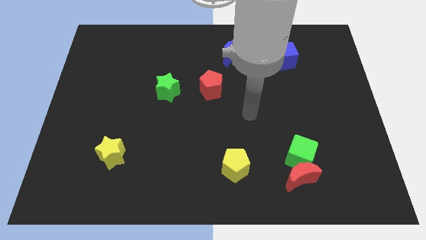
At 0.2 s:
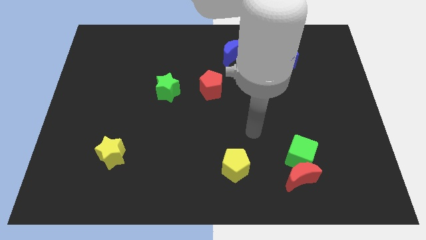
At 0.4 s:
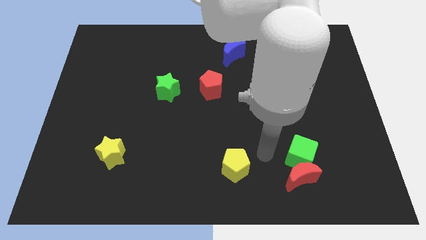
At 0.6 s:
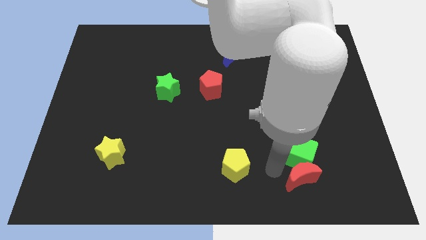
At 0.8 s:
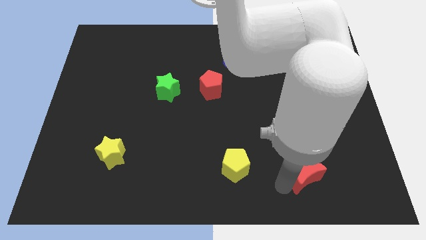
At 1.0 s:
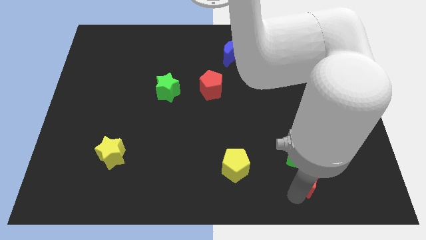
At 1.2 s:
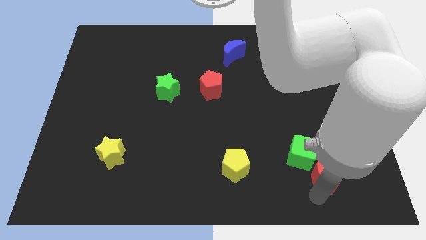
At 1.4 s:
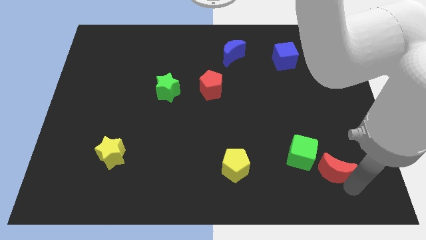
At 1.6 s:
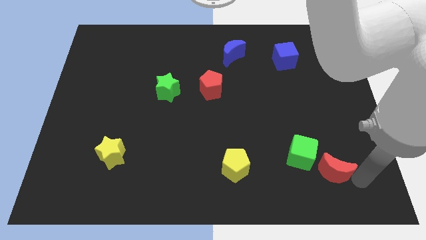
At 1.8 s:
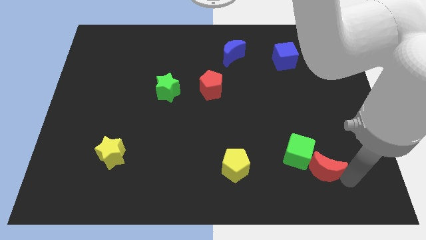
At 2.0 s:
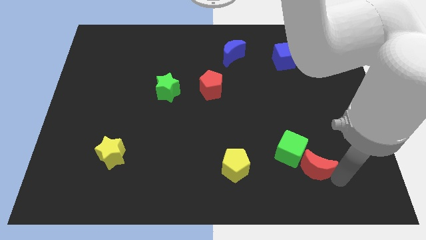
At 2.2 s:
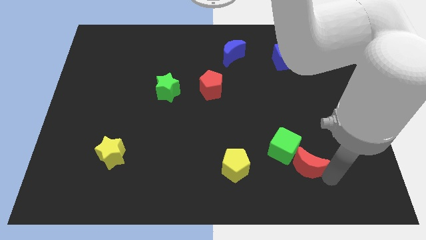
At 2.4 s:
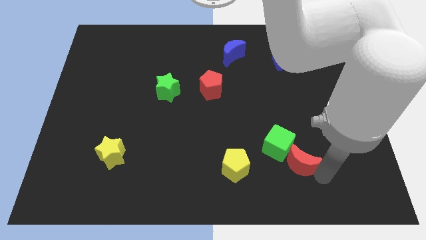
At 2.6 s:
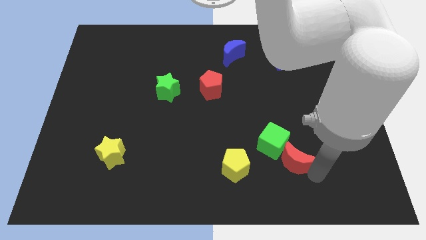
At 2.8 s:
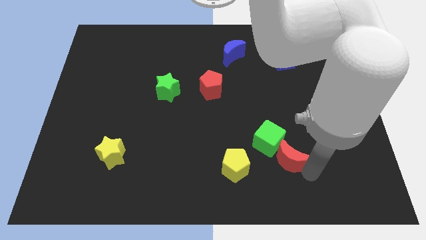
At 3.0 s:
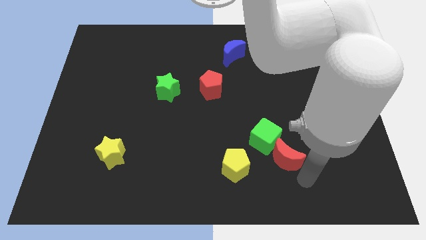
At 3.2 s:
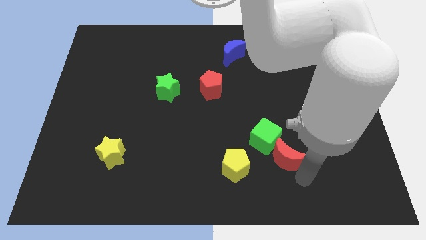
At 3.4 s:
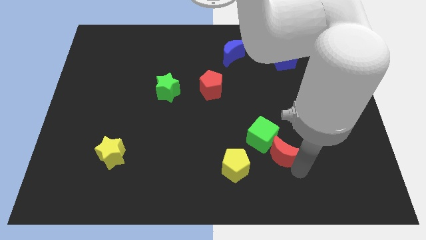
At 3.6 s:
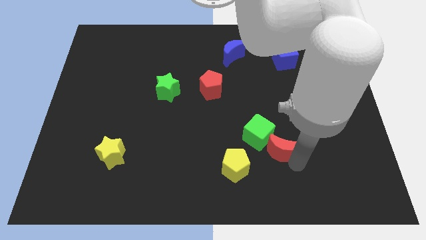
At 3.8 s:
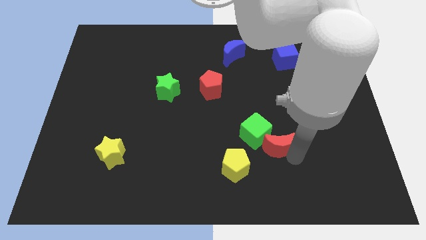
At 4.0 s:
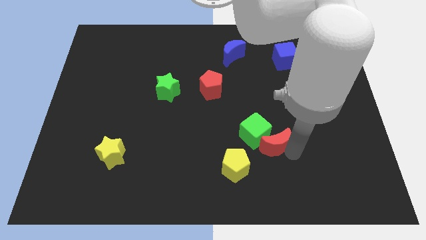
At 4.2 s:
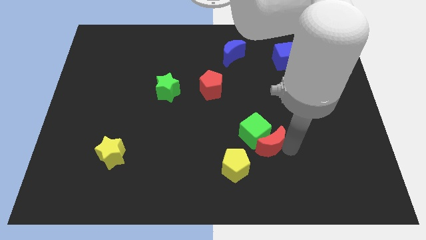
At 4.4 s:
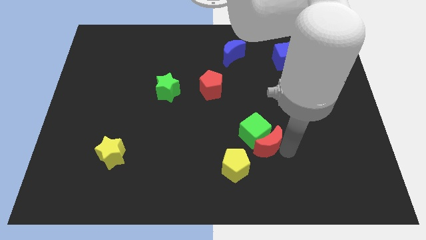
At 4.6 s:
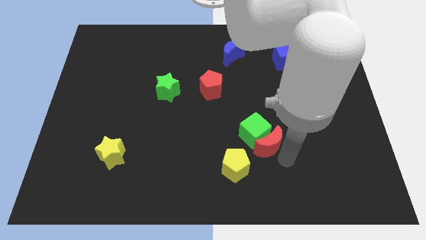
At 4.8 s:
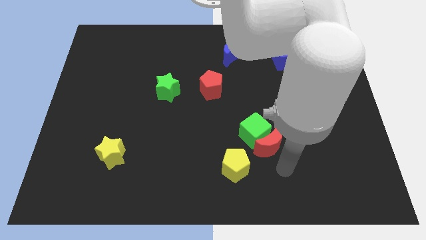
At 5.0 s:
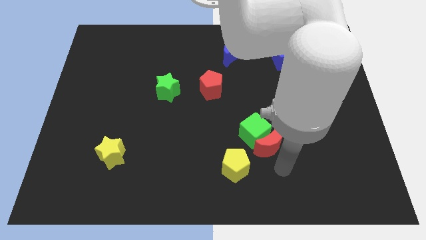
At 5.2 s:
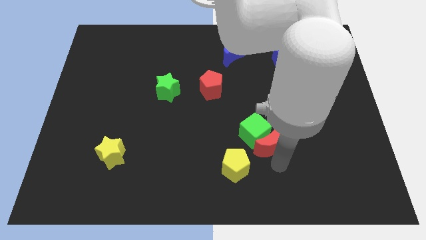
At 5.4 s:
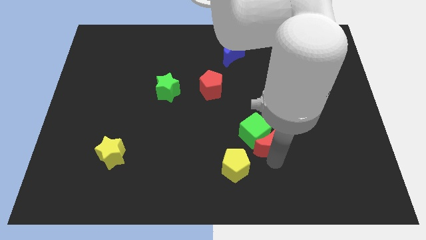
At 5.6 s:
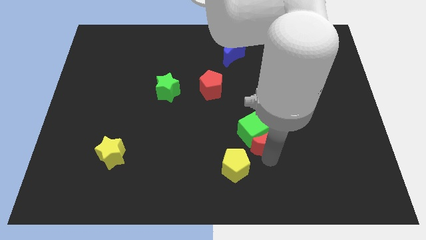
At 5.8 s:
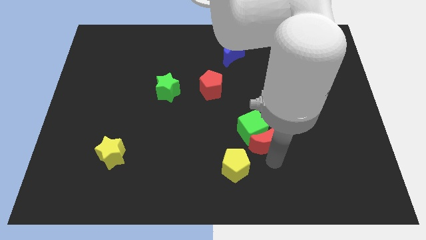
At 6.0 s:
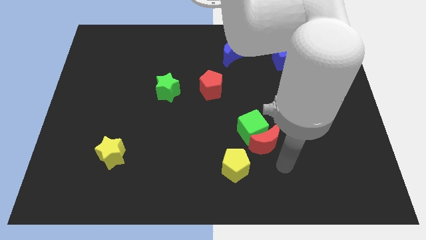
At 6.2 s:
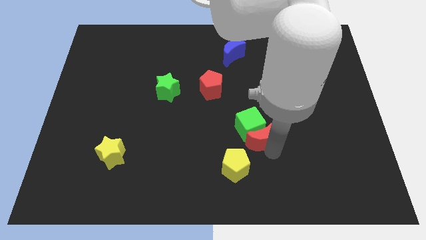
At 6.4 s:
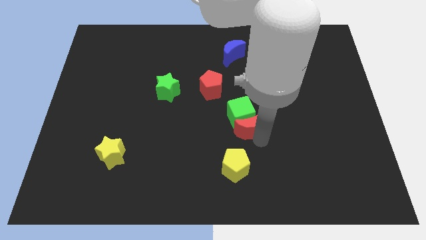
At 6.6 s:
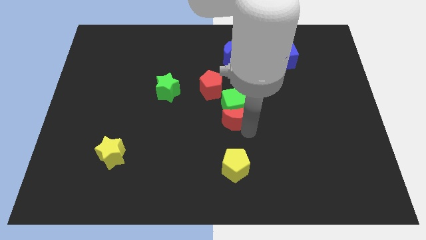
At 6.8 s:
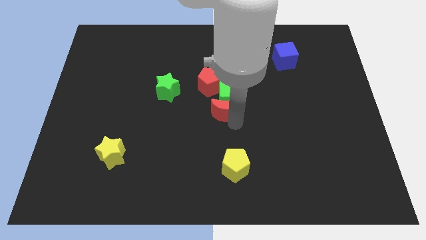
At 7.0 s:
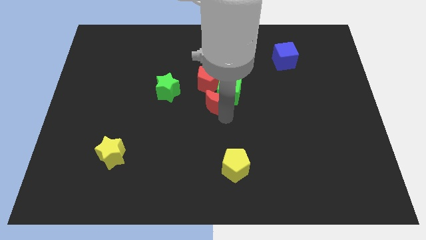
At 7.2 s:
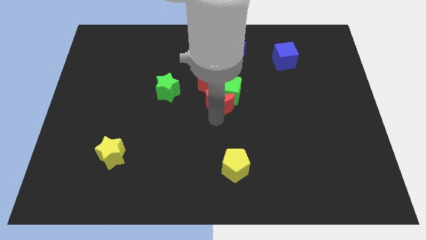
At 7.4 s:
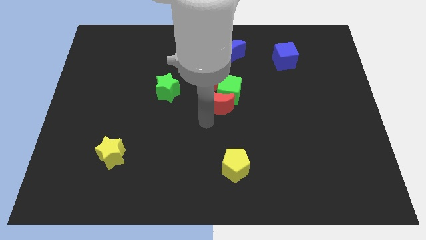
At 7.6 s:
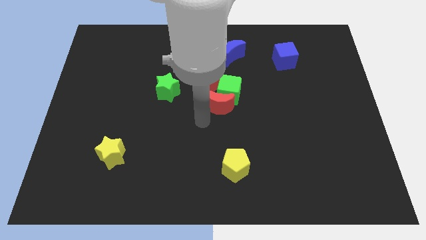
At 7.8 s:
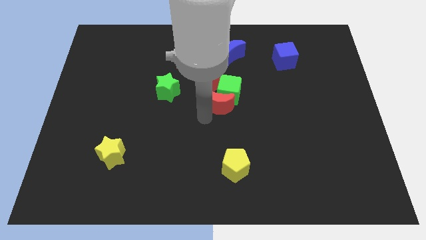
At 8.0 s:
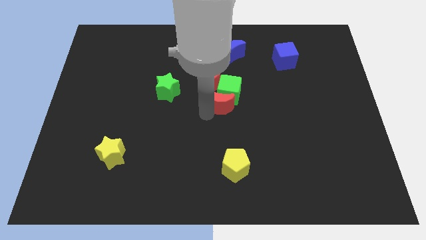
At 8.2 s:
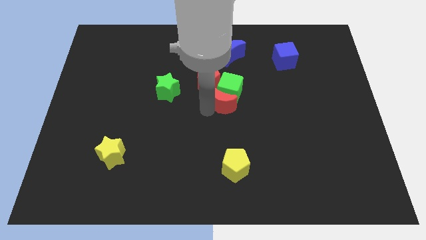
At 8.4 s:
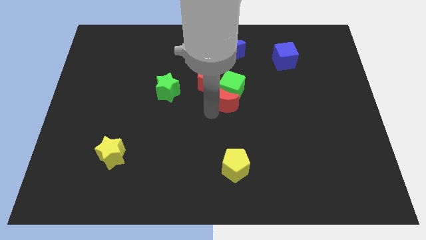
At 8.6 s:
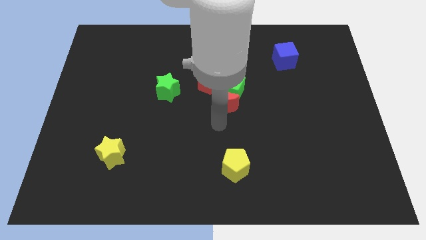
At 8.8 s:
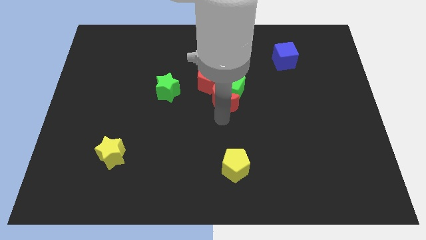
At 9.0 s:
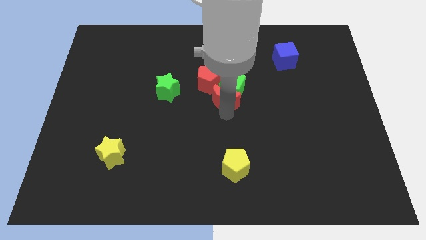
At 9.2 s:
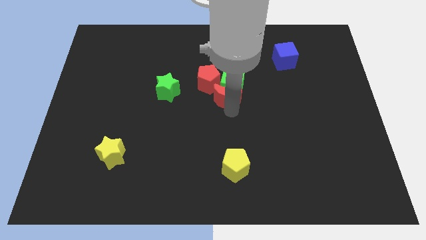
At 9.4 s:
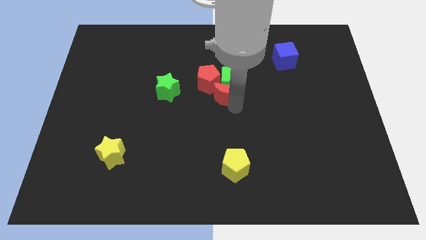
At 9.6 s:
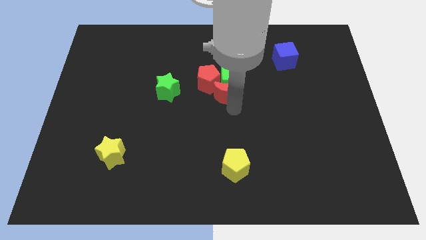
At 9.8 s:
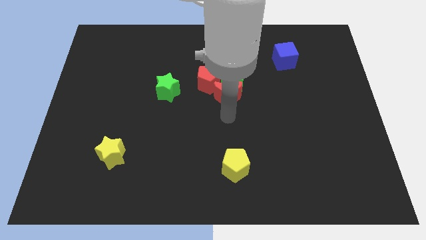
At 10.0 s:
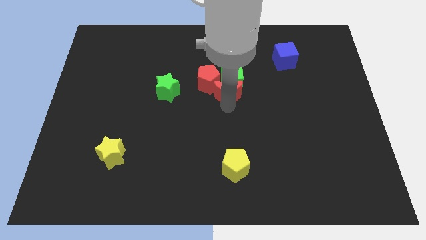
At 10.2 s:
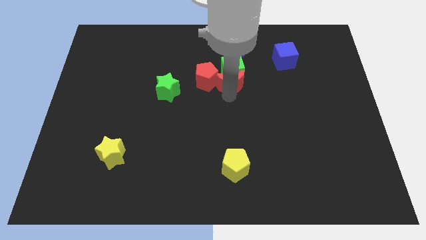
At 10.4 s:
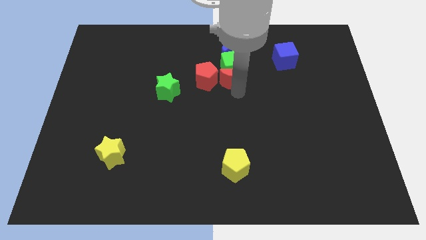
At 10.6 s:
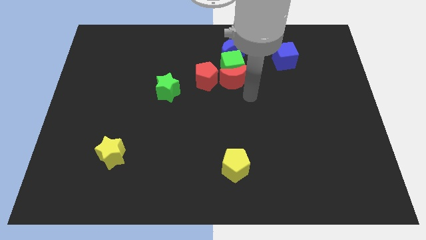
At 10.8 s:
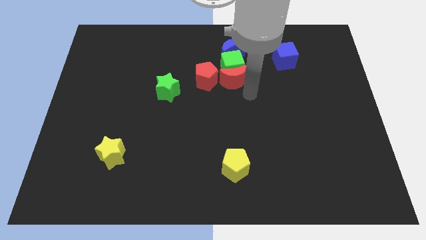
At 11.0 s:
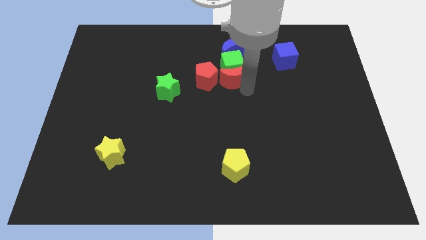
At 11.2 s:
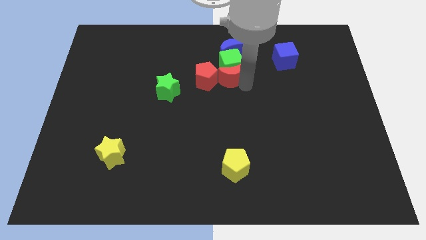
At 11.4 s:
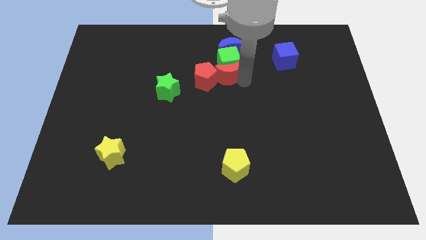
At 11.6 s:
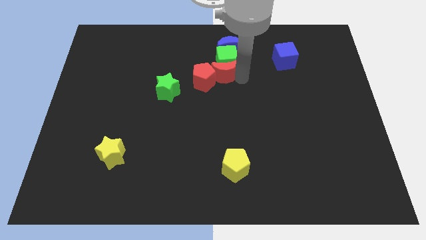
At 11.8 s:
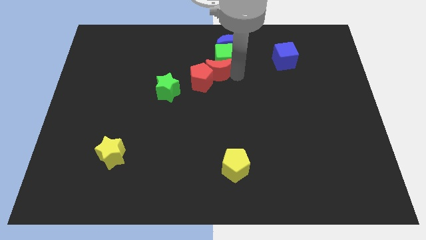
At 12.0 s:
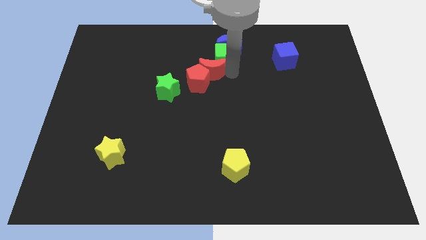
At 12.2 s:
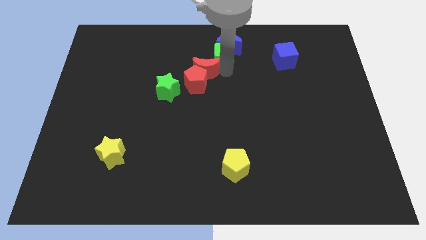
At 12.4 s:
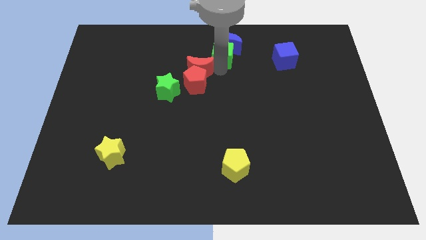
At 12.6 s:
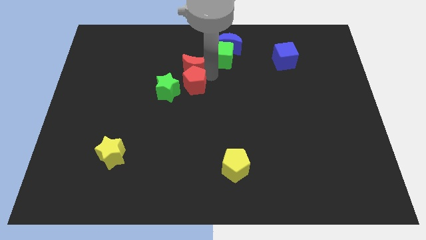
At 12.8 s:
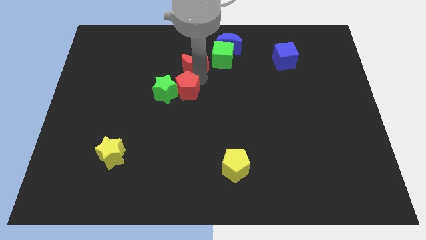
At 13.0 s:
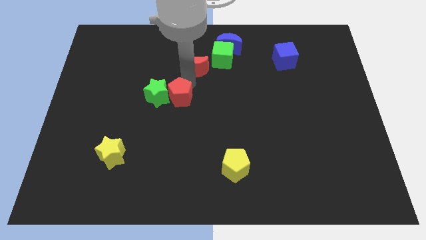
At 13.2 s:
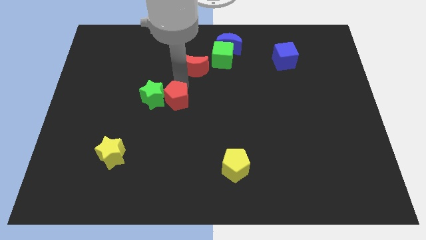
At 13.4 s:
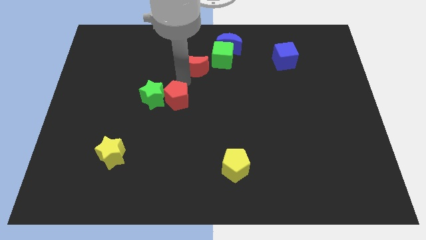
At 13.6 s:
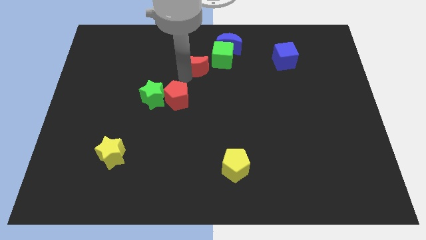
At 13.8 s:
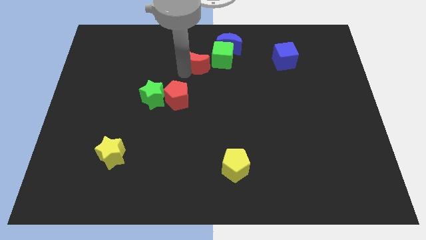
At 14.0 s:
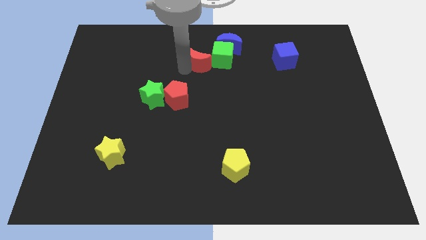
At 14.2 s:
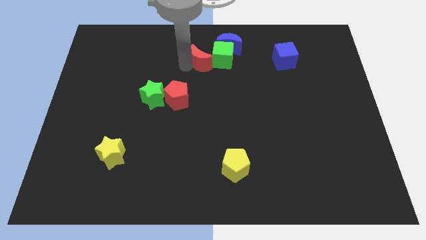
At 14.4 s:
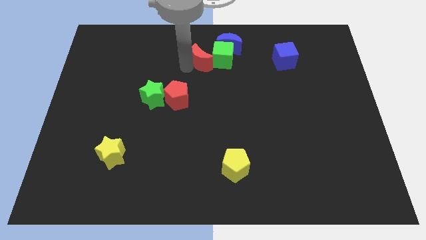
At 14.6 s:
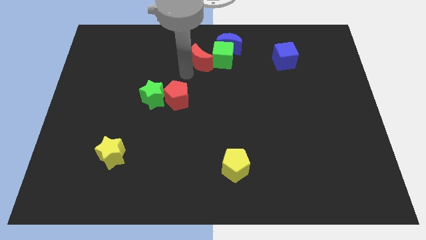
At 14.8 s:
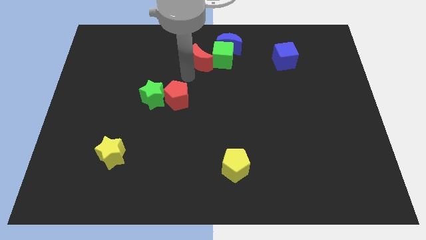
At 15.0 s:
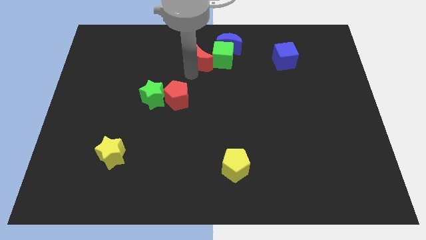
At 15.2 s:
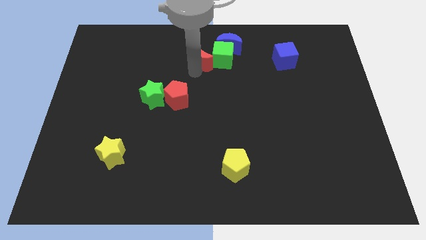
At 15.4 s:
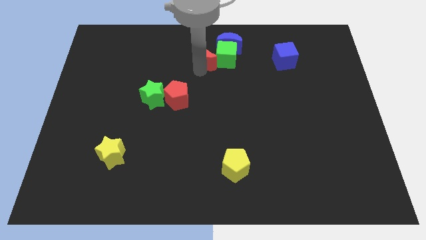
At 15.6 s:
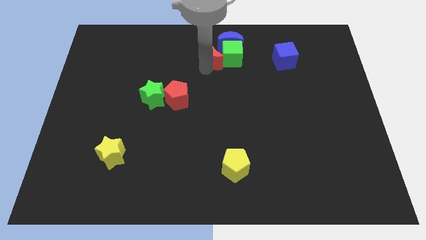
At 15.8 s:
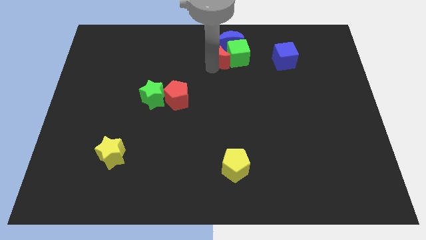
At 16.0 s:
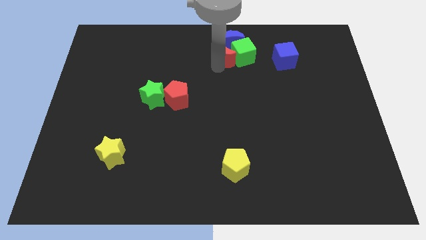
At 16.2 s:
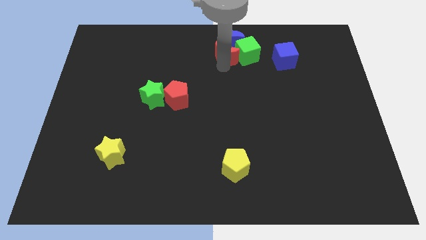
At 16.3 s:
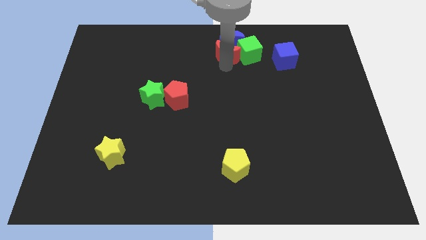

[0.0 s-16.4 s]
slide the red moon to the top side
